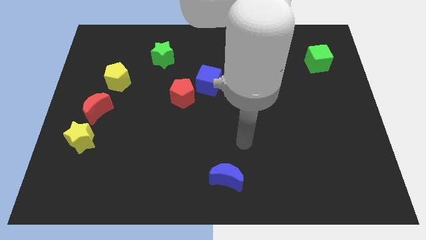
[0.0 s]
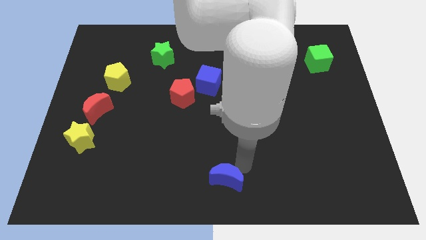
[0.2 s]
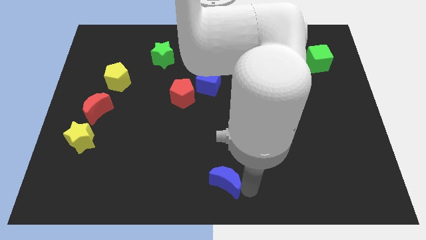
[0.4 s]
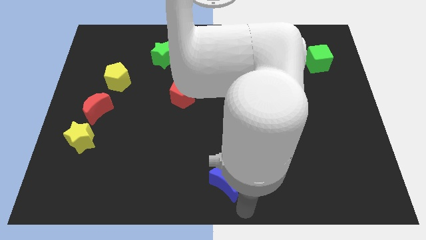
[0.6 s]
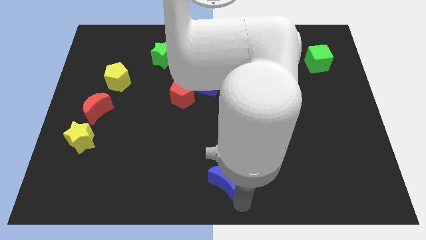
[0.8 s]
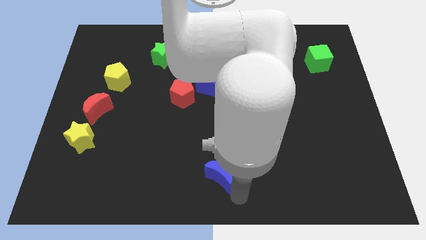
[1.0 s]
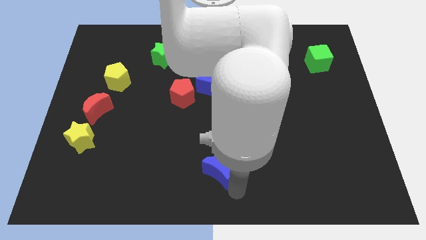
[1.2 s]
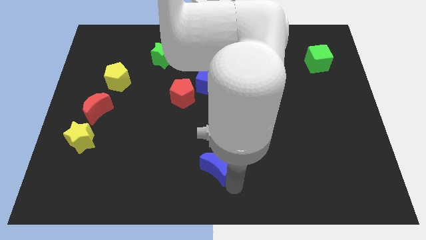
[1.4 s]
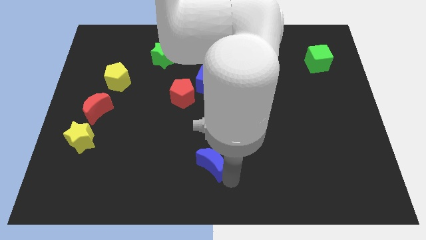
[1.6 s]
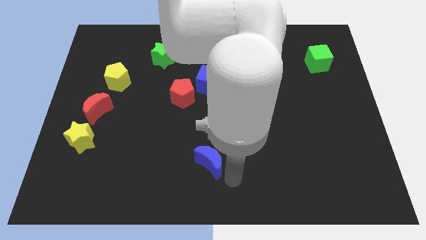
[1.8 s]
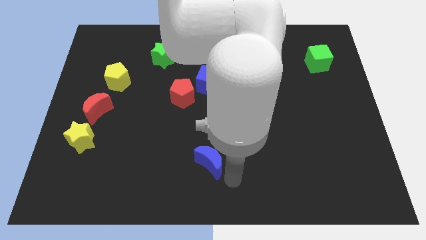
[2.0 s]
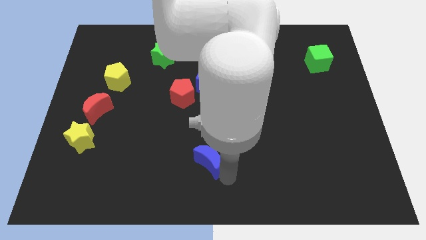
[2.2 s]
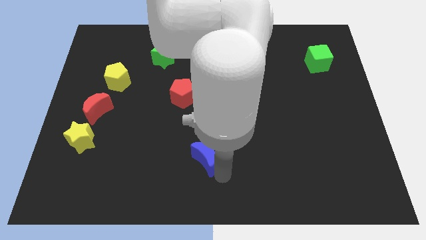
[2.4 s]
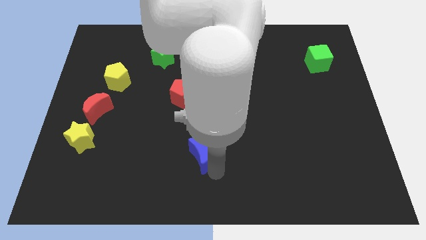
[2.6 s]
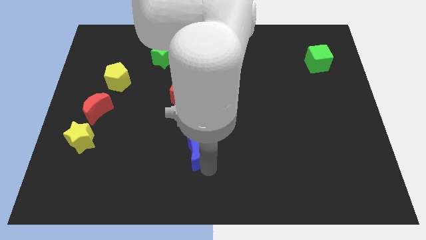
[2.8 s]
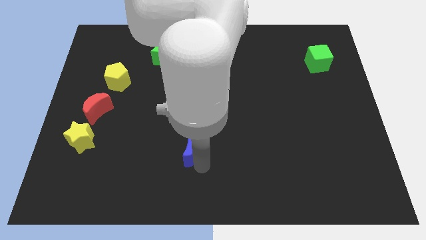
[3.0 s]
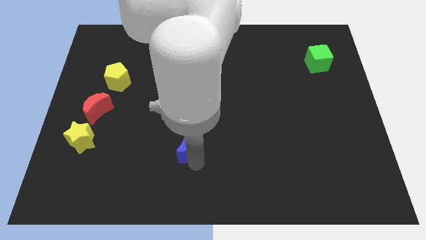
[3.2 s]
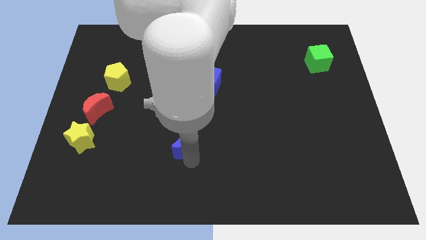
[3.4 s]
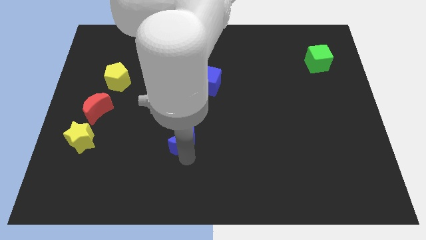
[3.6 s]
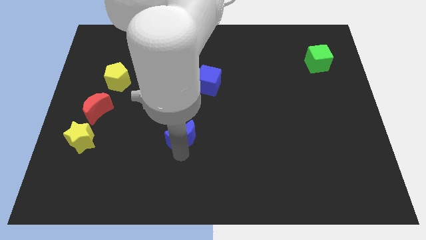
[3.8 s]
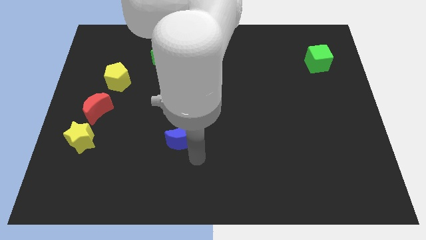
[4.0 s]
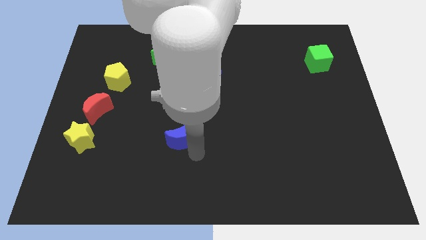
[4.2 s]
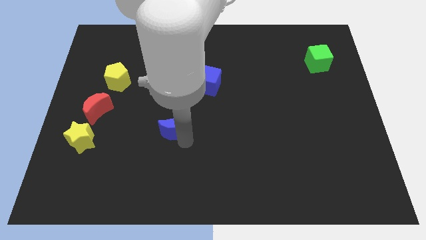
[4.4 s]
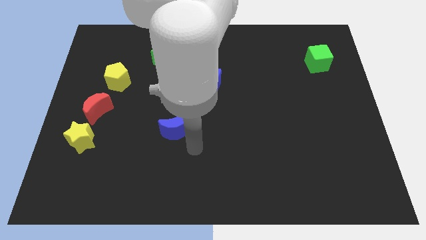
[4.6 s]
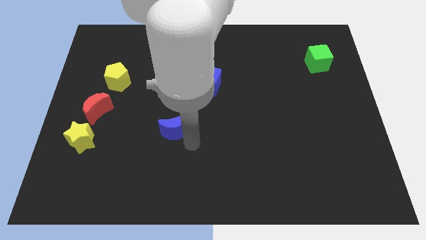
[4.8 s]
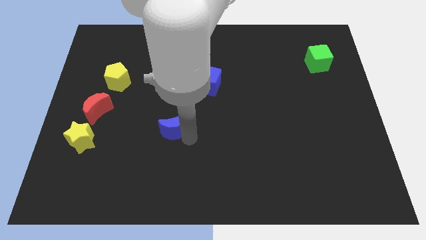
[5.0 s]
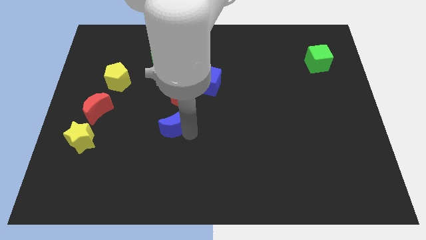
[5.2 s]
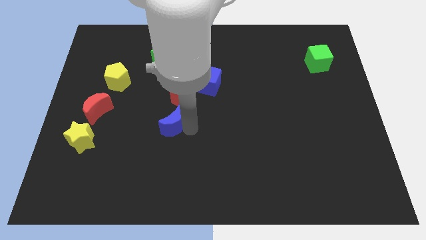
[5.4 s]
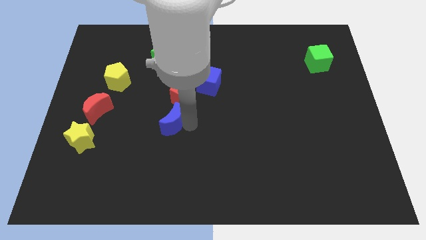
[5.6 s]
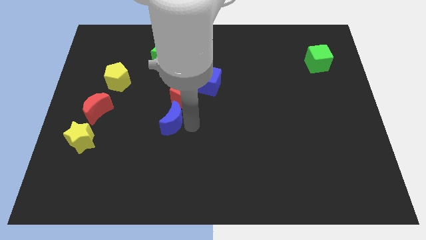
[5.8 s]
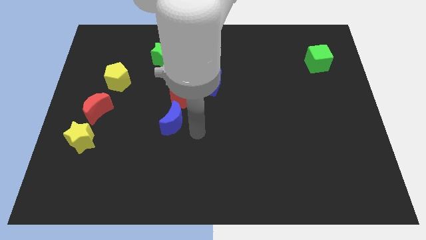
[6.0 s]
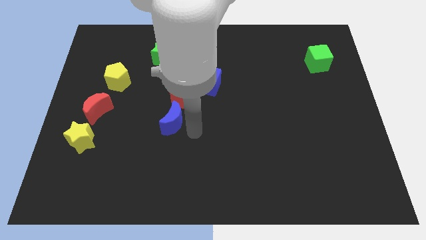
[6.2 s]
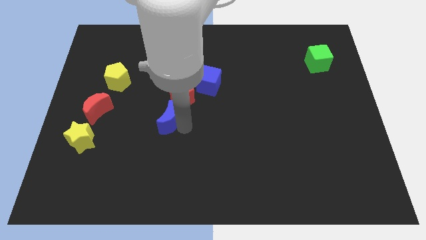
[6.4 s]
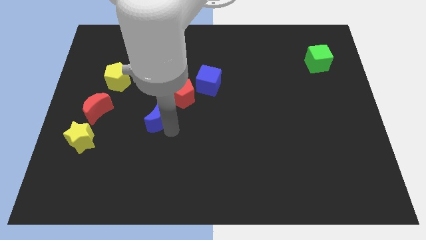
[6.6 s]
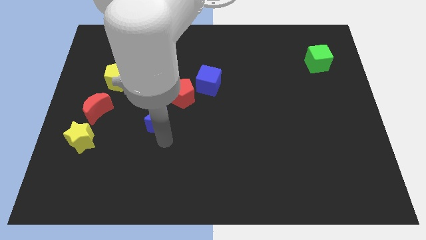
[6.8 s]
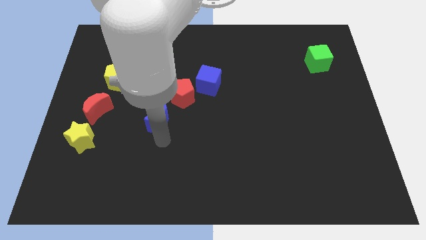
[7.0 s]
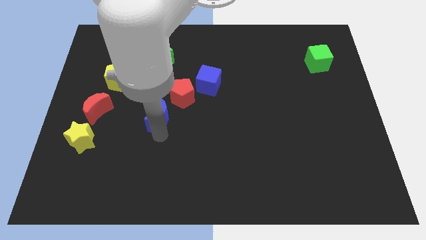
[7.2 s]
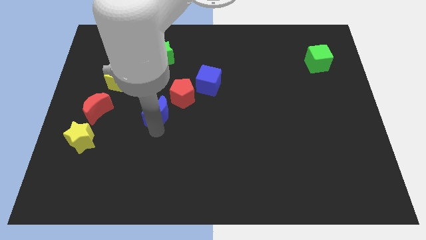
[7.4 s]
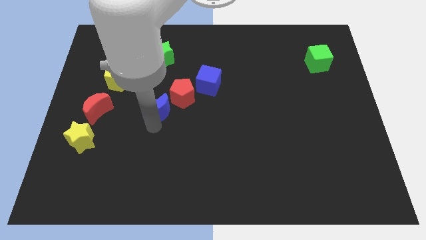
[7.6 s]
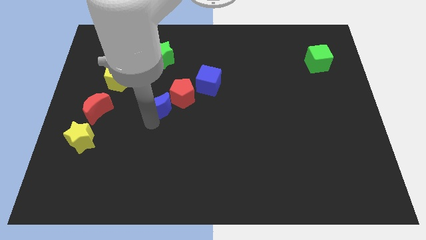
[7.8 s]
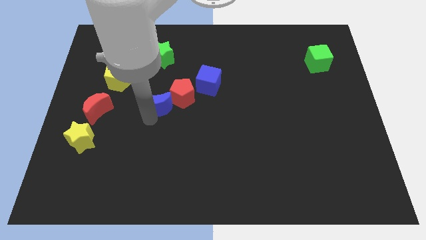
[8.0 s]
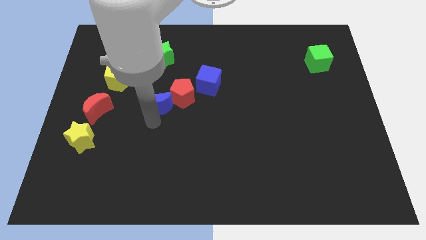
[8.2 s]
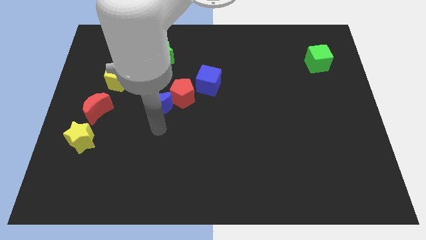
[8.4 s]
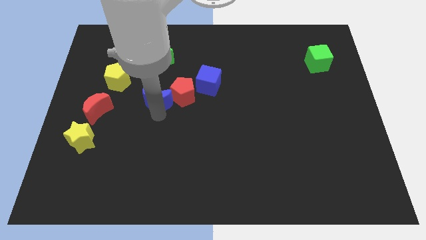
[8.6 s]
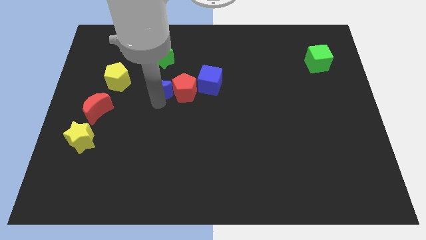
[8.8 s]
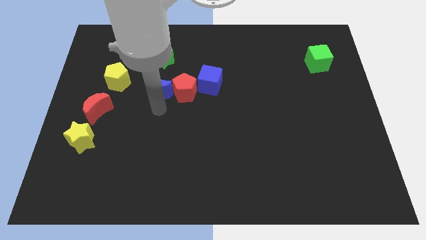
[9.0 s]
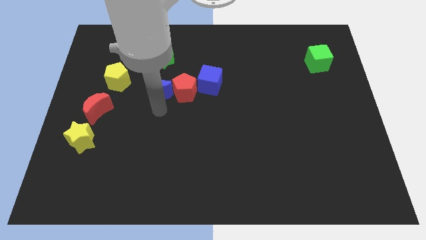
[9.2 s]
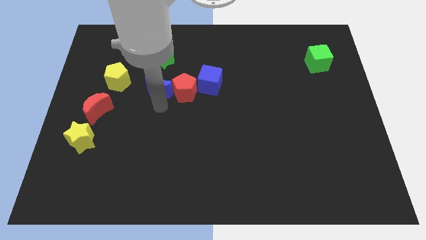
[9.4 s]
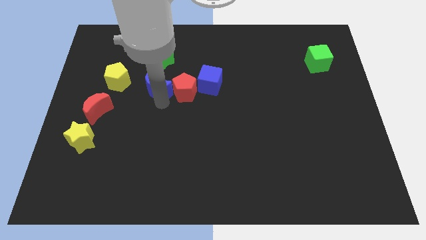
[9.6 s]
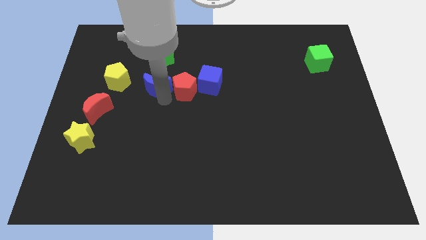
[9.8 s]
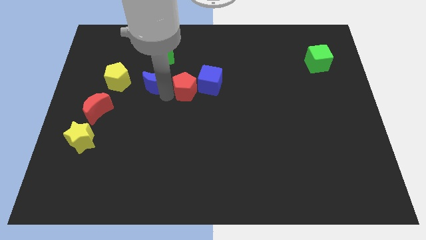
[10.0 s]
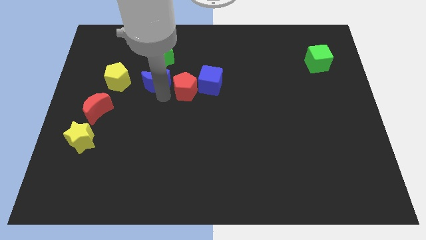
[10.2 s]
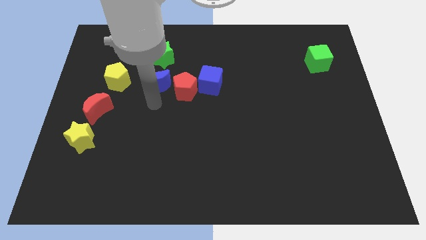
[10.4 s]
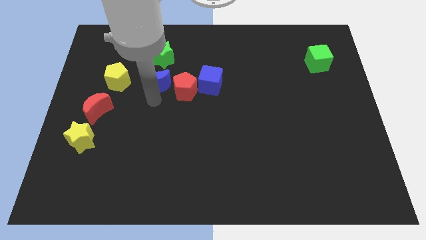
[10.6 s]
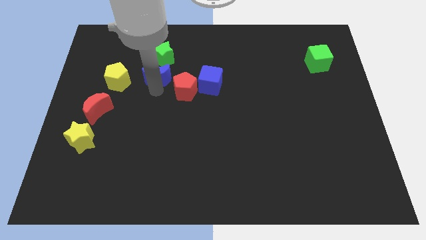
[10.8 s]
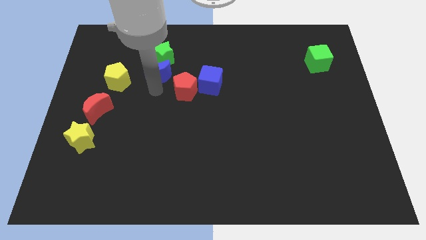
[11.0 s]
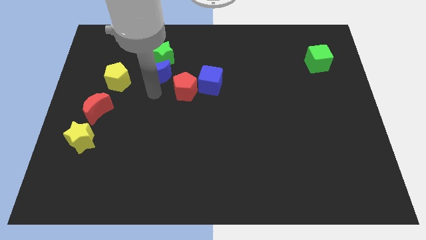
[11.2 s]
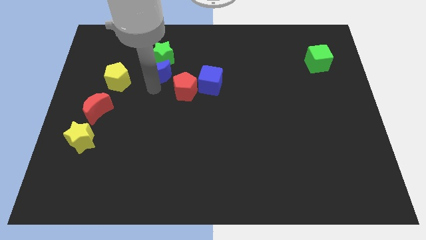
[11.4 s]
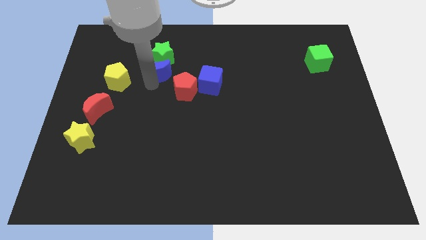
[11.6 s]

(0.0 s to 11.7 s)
slide the blue moon towards the green star

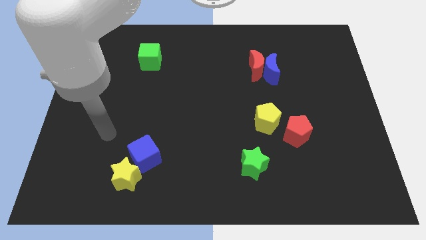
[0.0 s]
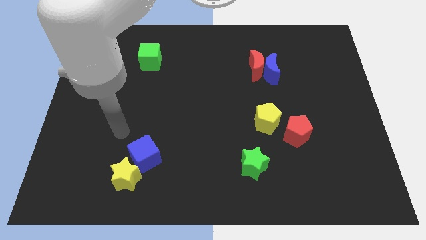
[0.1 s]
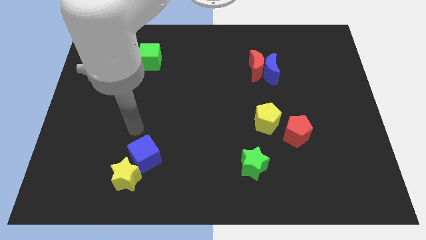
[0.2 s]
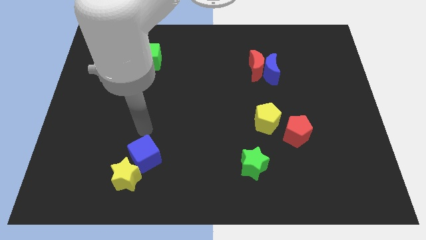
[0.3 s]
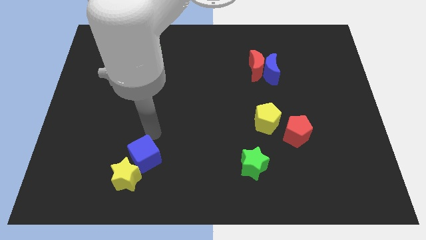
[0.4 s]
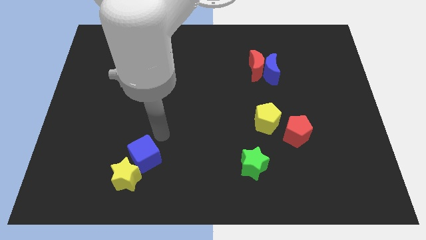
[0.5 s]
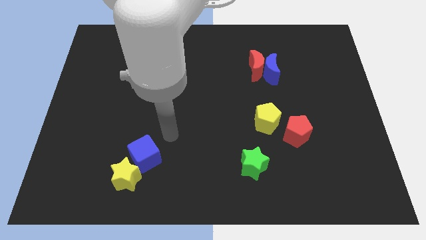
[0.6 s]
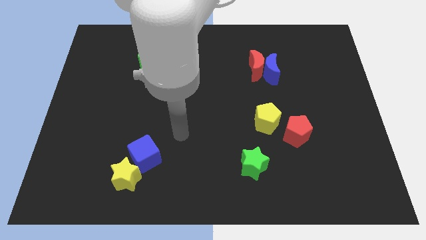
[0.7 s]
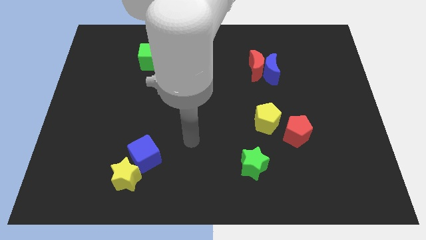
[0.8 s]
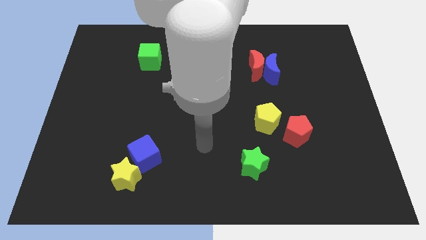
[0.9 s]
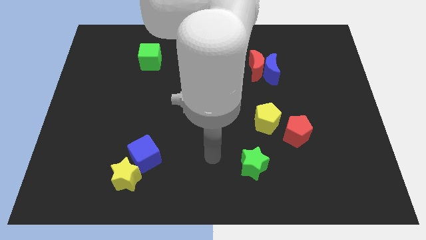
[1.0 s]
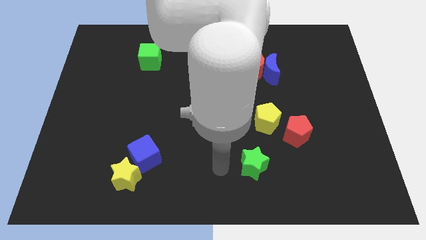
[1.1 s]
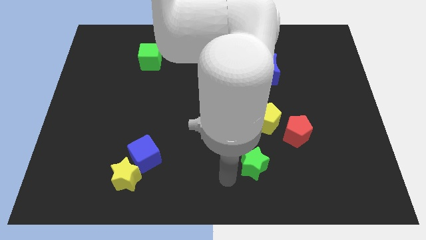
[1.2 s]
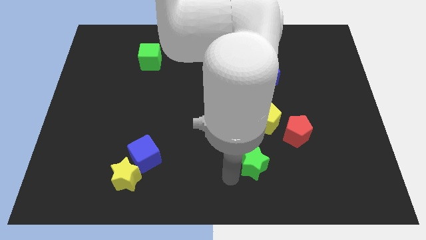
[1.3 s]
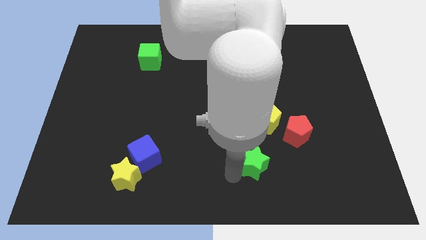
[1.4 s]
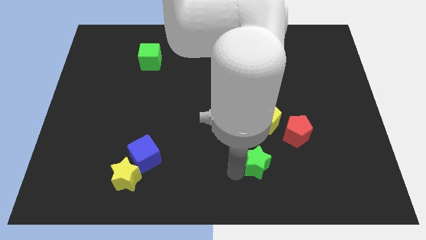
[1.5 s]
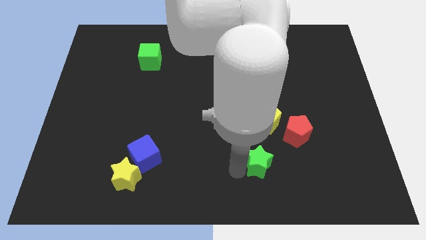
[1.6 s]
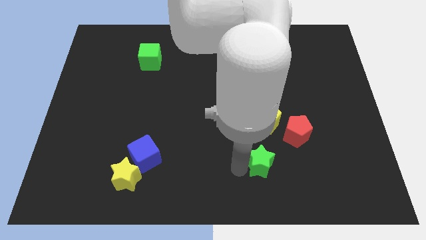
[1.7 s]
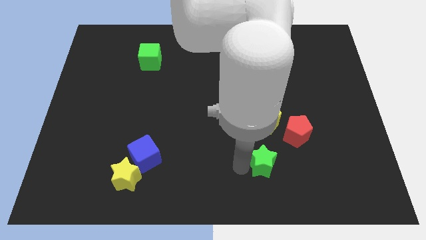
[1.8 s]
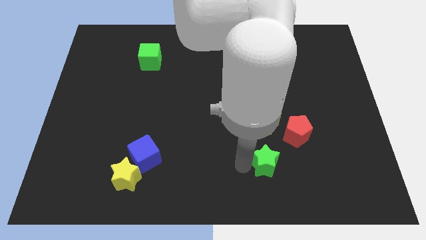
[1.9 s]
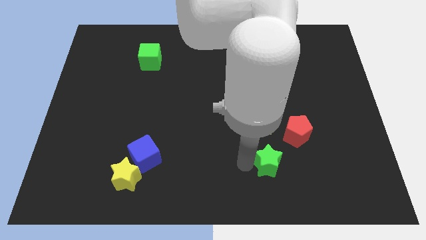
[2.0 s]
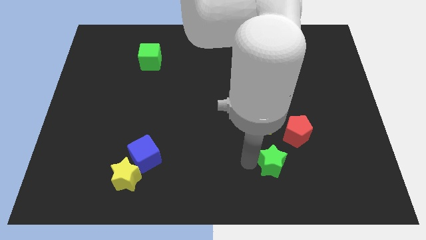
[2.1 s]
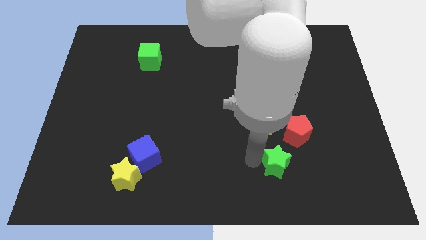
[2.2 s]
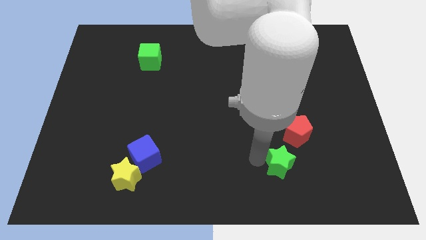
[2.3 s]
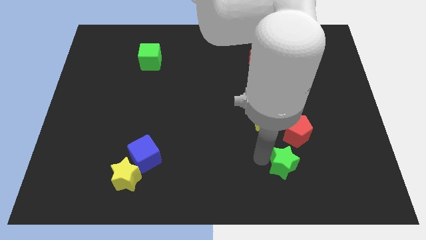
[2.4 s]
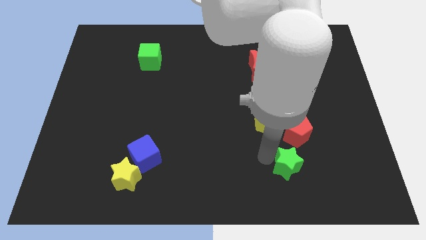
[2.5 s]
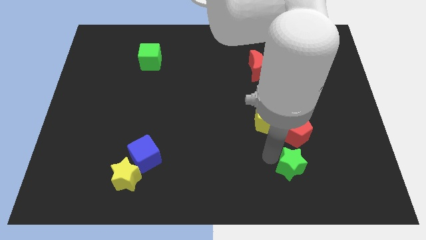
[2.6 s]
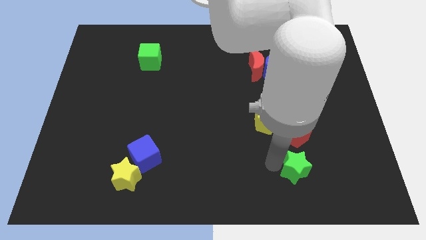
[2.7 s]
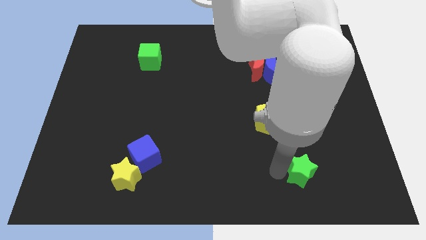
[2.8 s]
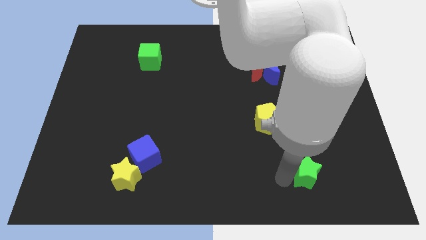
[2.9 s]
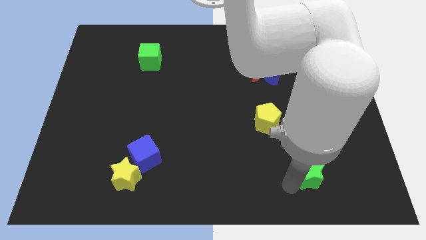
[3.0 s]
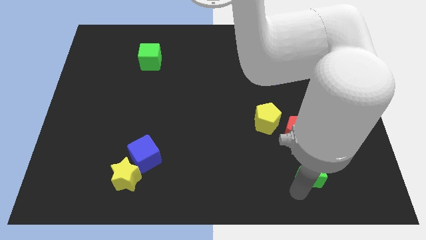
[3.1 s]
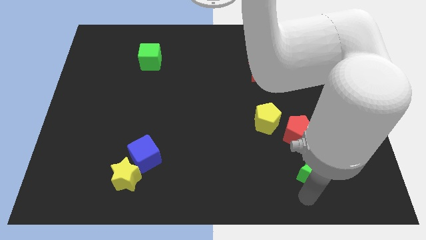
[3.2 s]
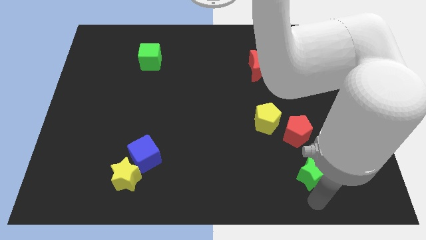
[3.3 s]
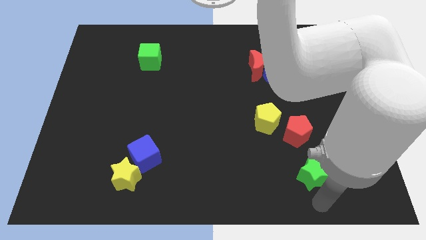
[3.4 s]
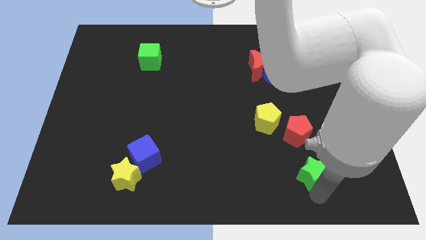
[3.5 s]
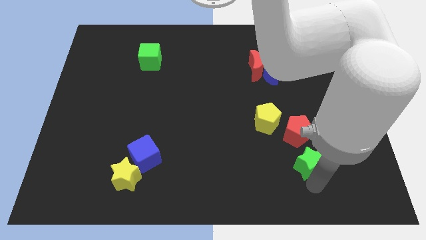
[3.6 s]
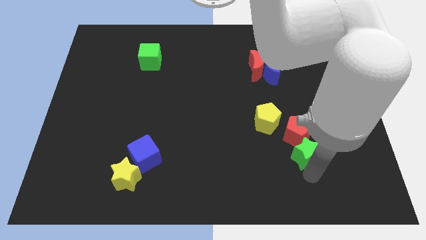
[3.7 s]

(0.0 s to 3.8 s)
push the green star next to the red pentagon
